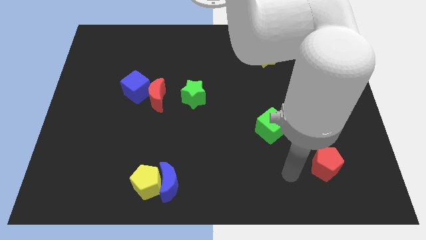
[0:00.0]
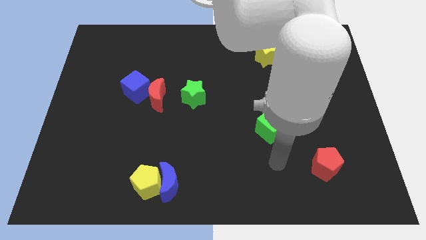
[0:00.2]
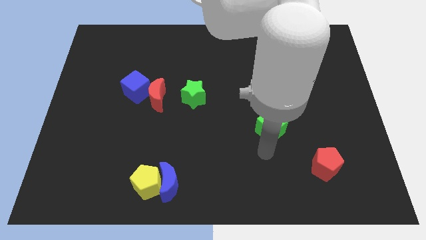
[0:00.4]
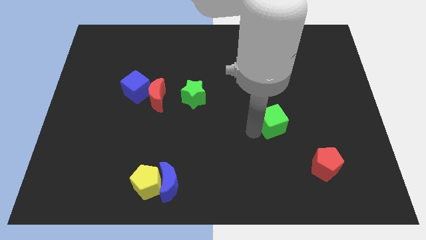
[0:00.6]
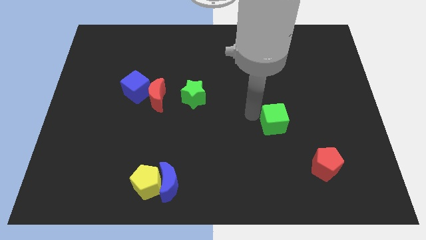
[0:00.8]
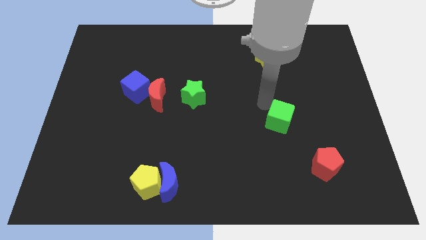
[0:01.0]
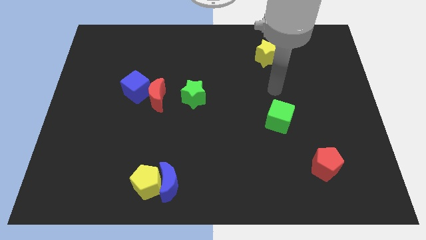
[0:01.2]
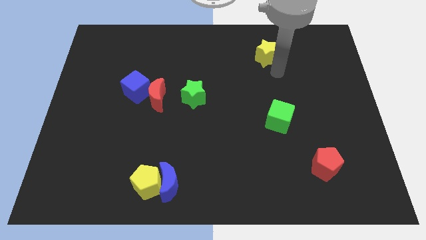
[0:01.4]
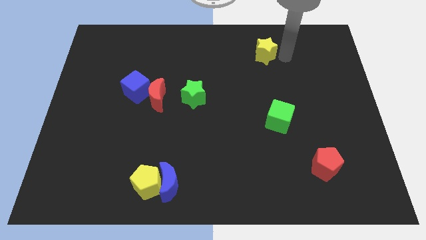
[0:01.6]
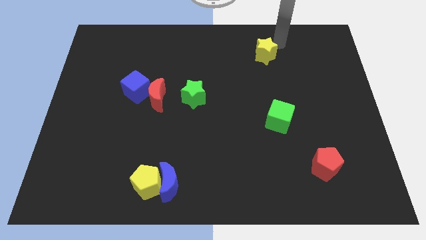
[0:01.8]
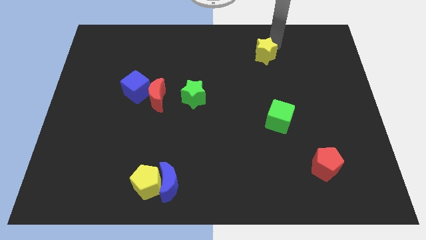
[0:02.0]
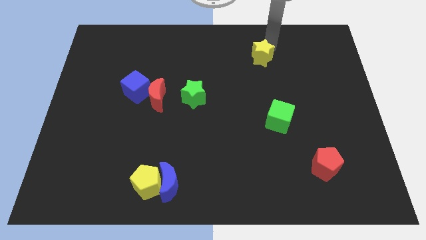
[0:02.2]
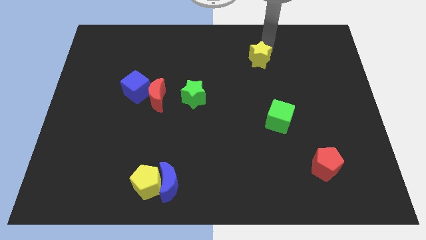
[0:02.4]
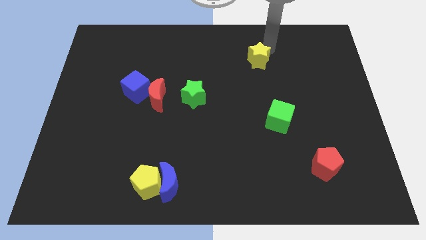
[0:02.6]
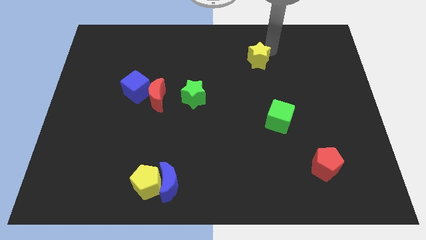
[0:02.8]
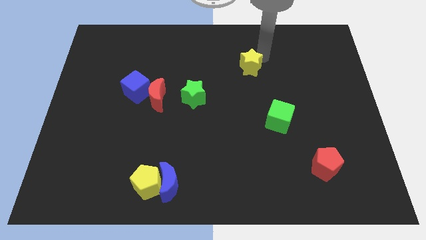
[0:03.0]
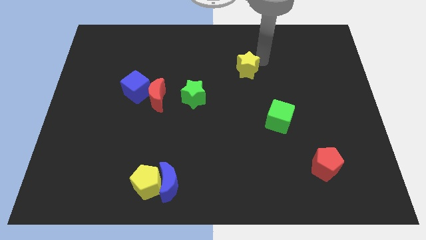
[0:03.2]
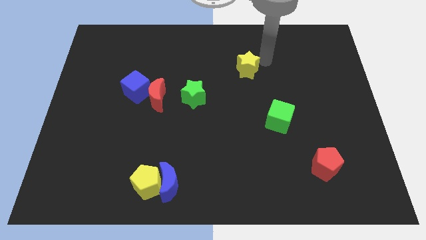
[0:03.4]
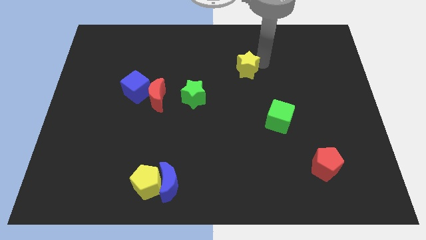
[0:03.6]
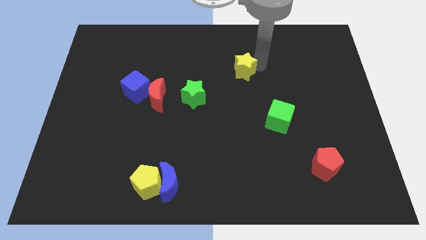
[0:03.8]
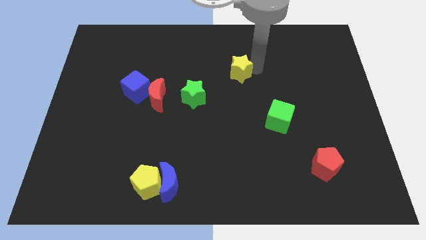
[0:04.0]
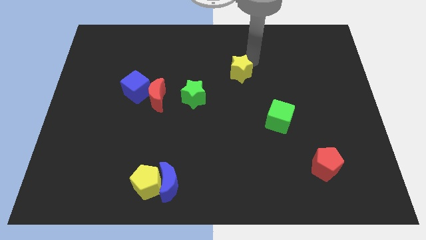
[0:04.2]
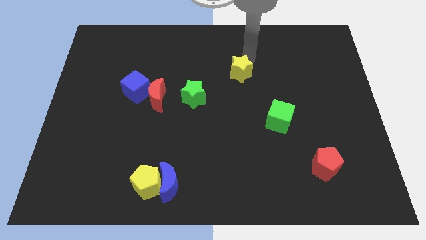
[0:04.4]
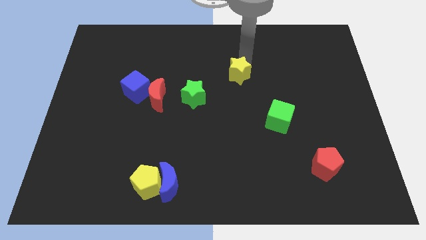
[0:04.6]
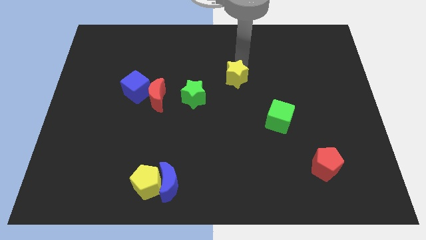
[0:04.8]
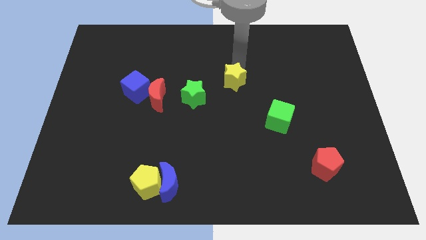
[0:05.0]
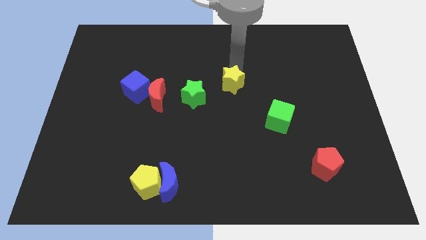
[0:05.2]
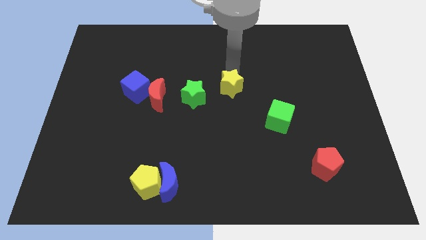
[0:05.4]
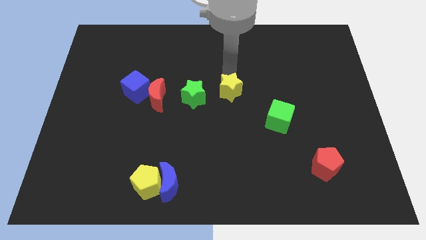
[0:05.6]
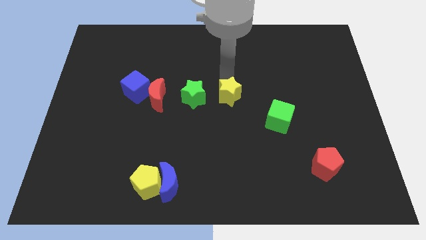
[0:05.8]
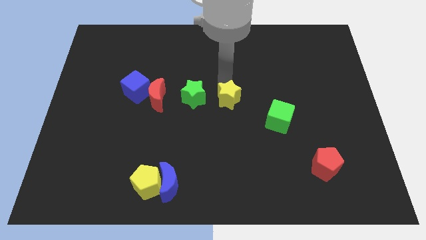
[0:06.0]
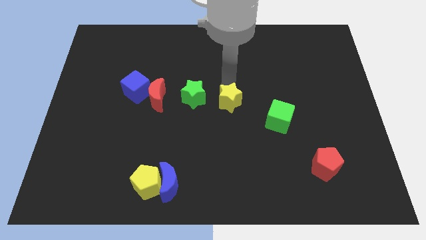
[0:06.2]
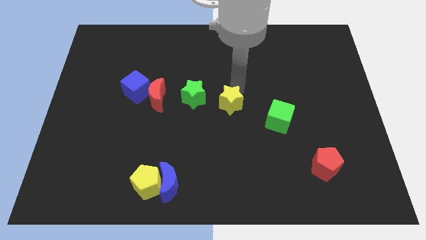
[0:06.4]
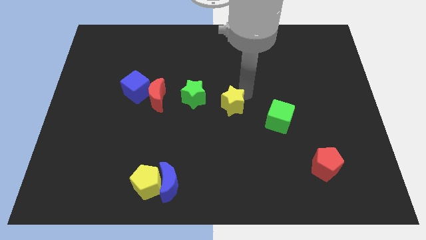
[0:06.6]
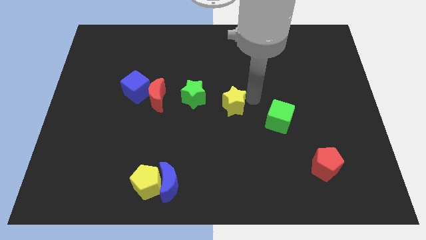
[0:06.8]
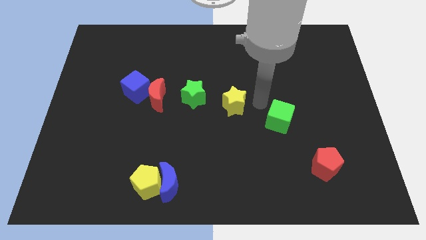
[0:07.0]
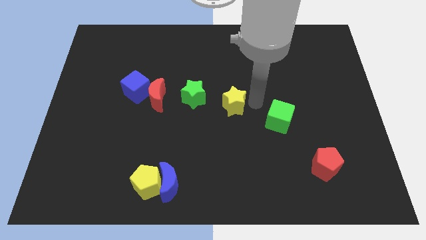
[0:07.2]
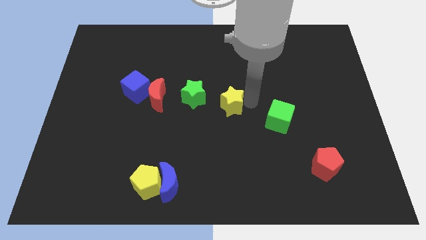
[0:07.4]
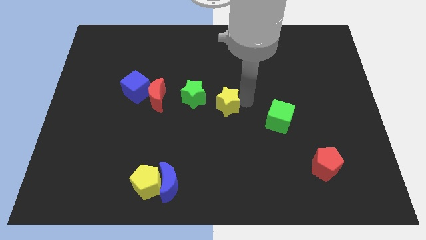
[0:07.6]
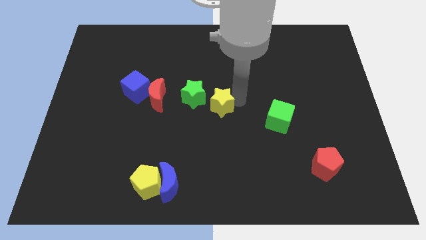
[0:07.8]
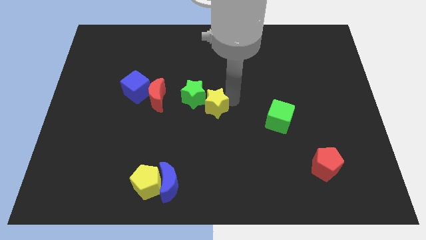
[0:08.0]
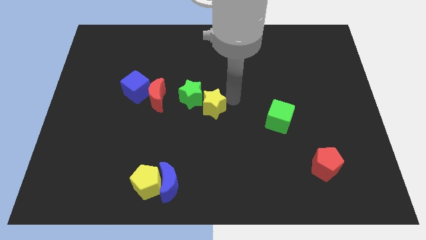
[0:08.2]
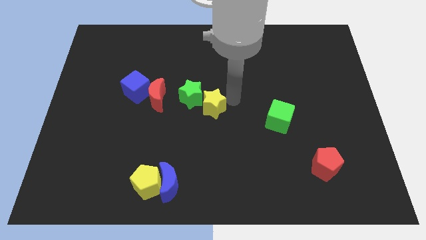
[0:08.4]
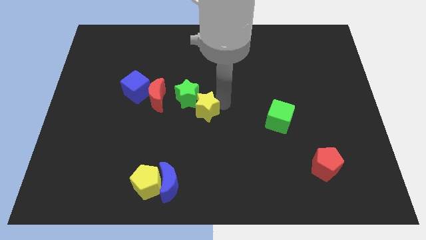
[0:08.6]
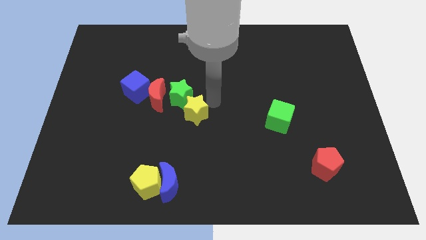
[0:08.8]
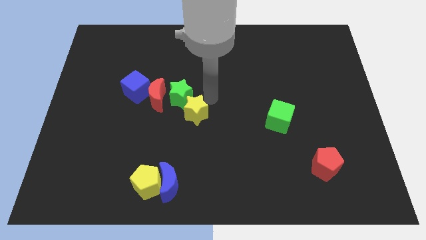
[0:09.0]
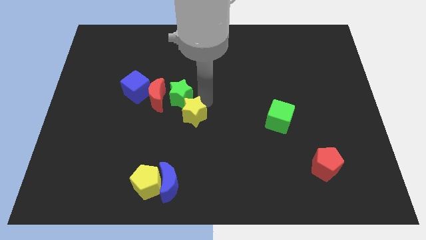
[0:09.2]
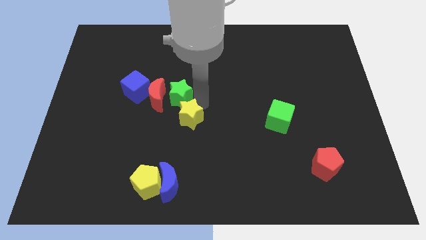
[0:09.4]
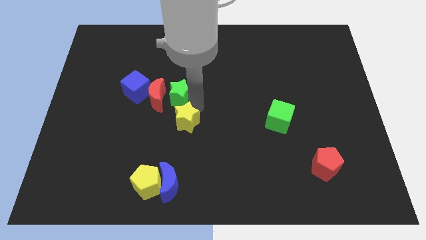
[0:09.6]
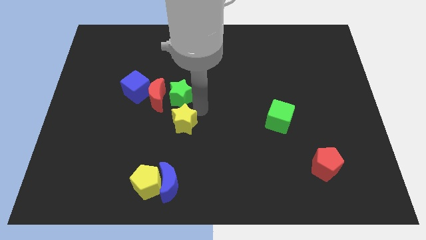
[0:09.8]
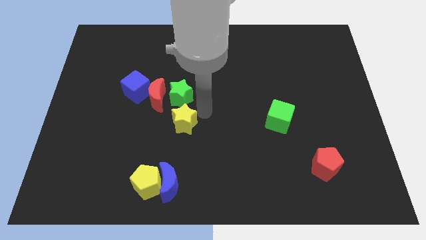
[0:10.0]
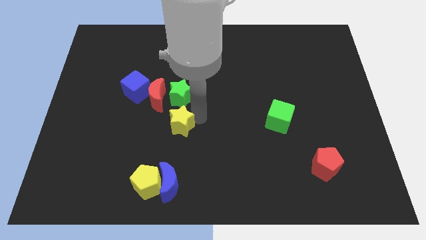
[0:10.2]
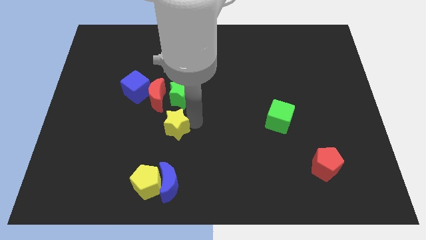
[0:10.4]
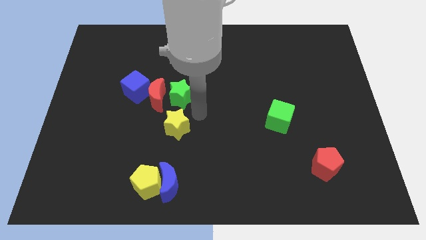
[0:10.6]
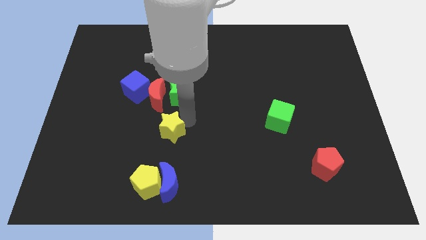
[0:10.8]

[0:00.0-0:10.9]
put the yellow star to the top of the yellow pentagon

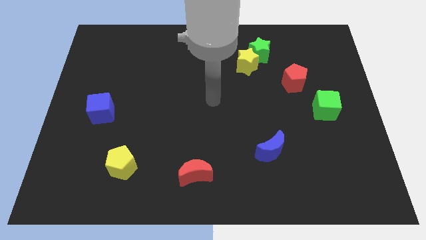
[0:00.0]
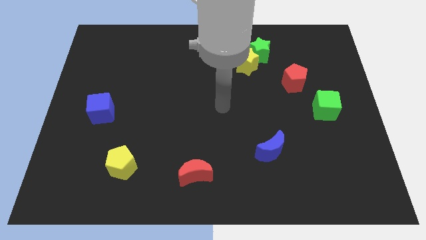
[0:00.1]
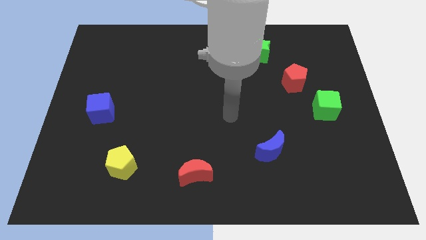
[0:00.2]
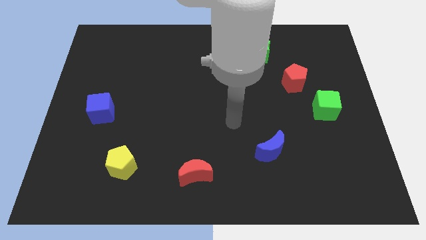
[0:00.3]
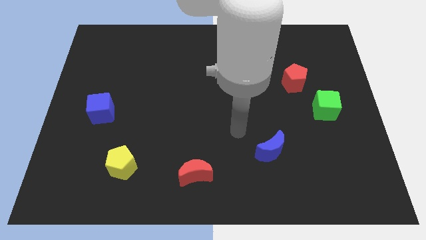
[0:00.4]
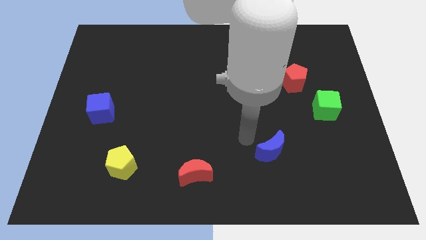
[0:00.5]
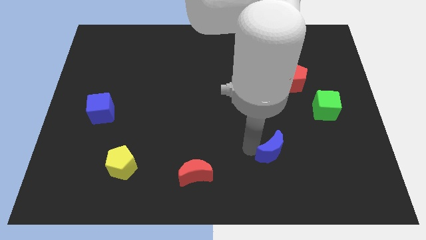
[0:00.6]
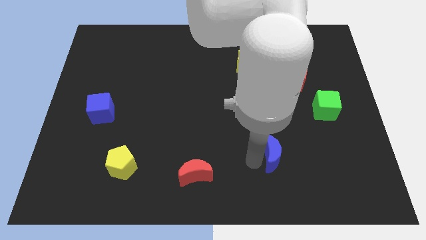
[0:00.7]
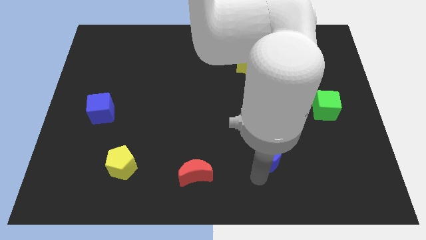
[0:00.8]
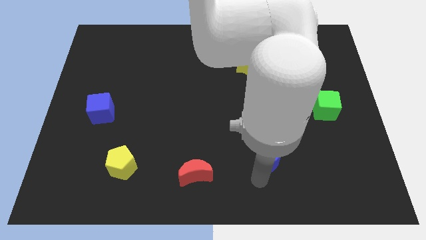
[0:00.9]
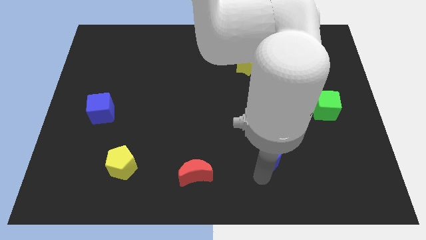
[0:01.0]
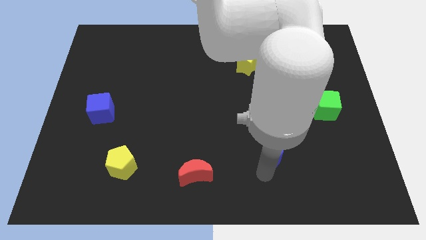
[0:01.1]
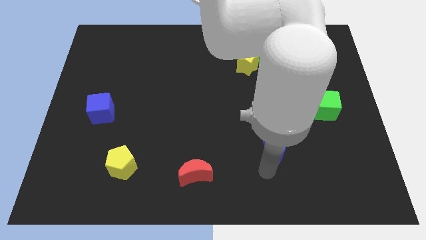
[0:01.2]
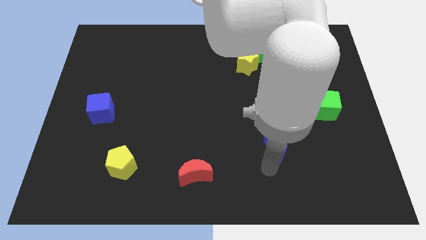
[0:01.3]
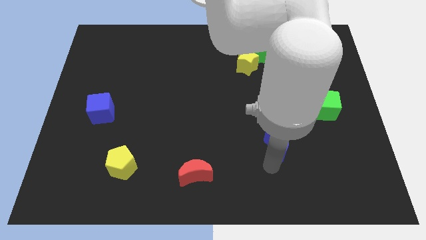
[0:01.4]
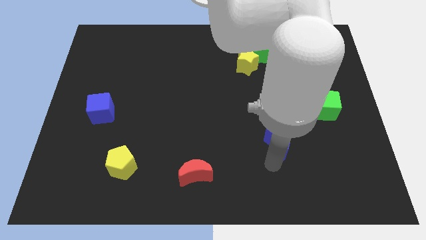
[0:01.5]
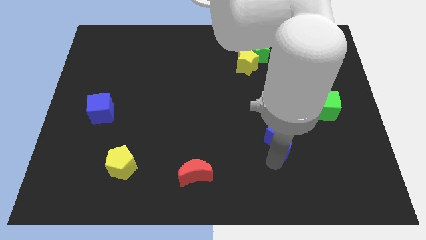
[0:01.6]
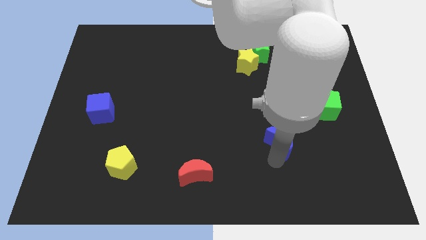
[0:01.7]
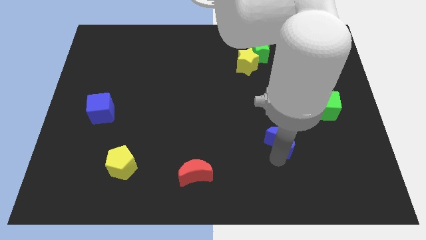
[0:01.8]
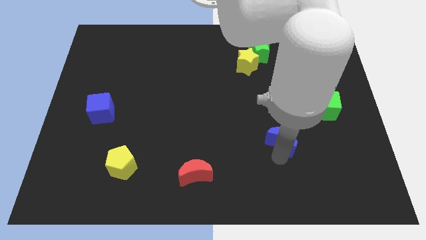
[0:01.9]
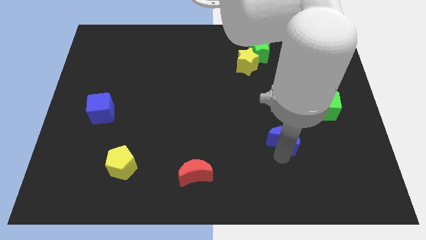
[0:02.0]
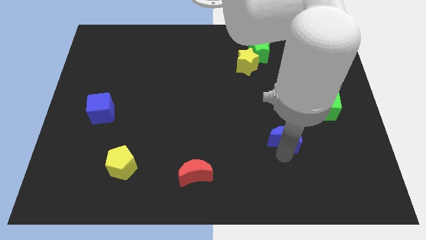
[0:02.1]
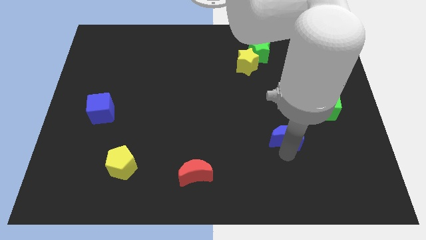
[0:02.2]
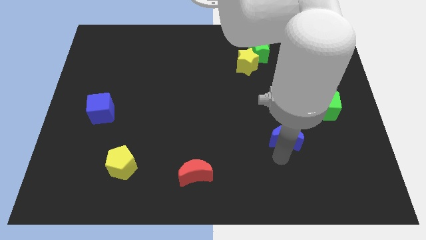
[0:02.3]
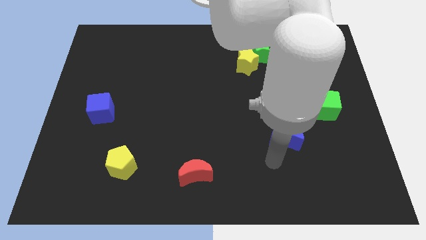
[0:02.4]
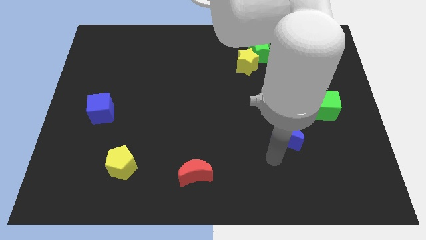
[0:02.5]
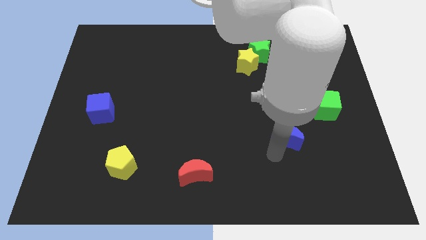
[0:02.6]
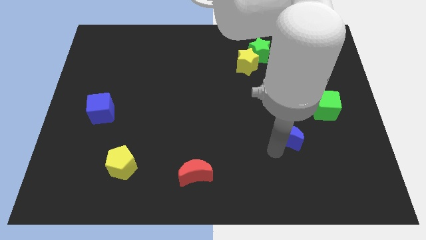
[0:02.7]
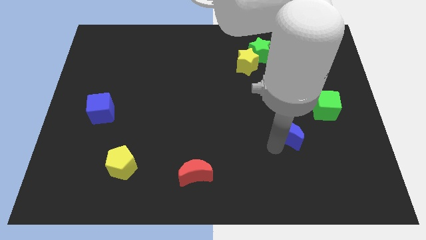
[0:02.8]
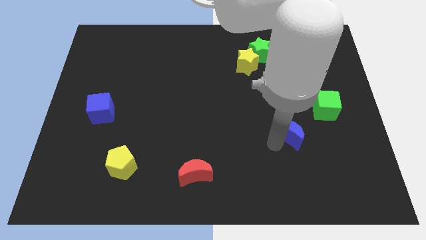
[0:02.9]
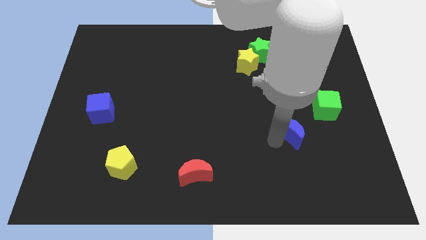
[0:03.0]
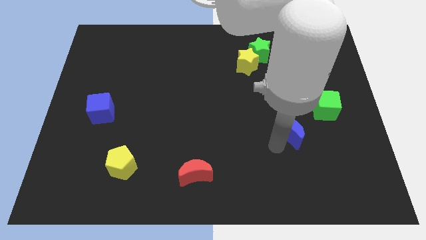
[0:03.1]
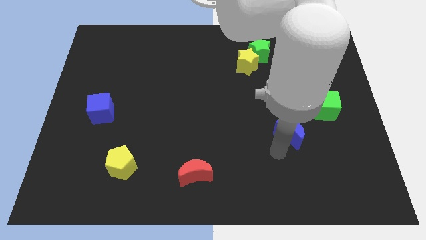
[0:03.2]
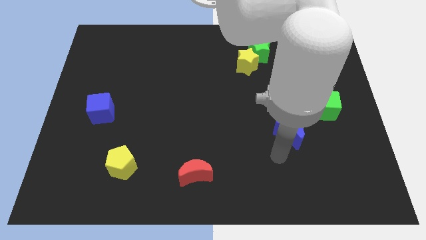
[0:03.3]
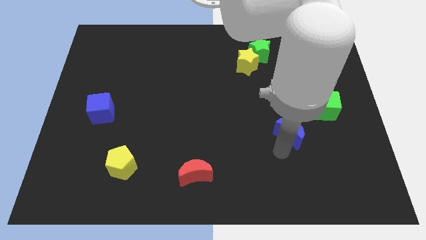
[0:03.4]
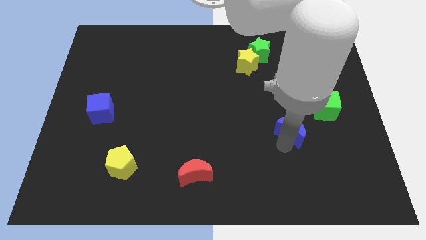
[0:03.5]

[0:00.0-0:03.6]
move the blue moon to the bottom of the red pentagon
